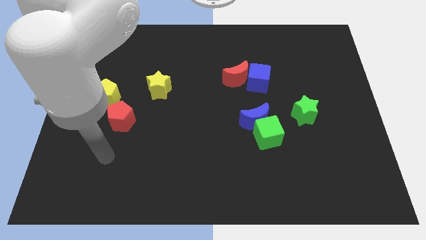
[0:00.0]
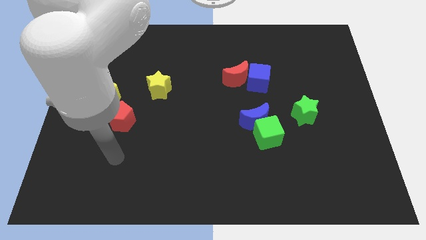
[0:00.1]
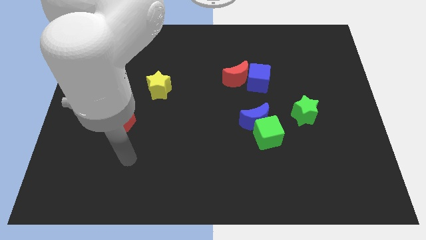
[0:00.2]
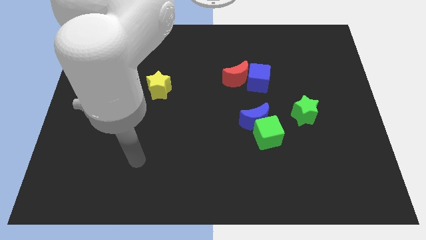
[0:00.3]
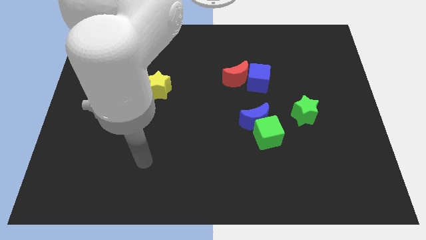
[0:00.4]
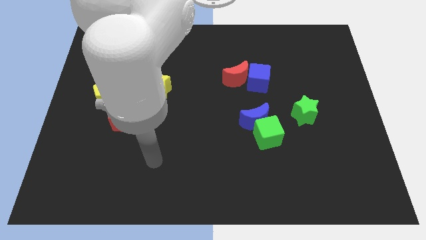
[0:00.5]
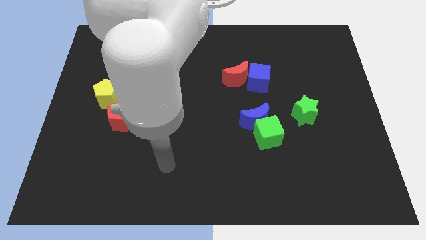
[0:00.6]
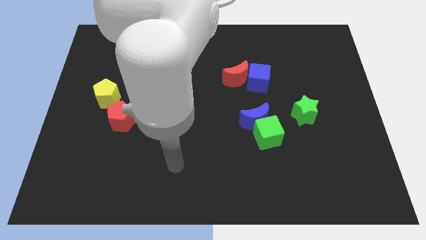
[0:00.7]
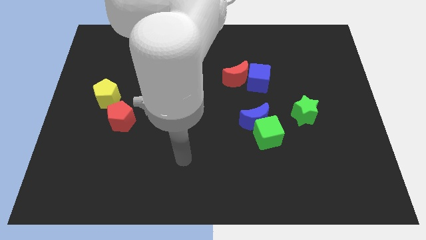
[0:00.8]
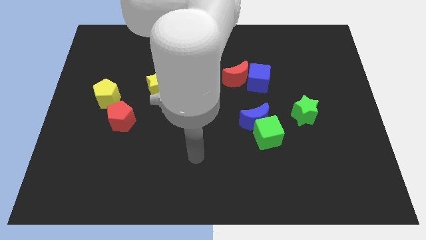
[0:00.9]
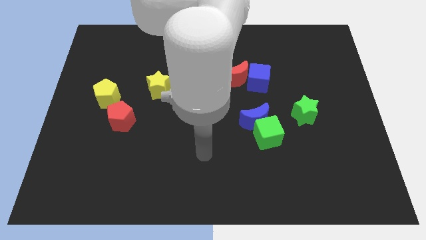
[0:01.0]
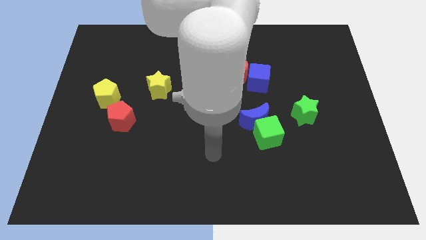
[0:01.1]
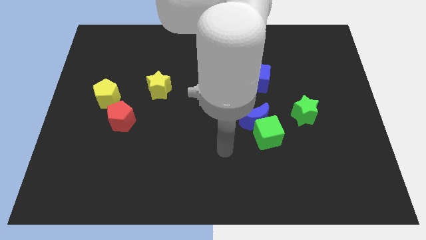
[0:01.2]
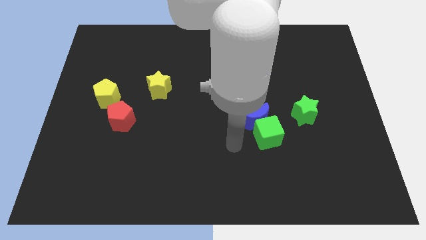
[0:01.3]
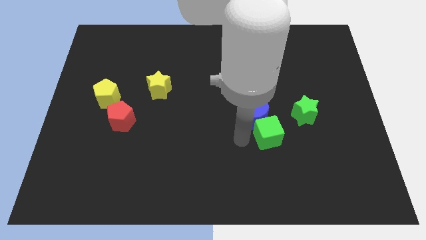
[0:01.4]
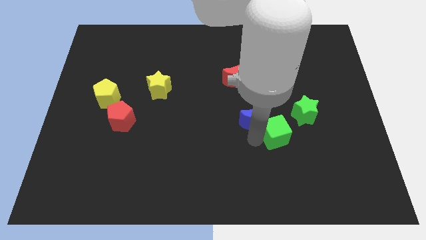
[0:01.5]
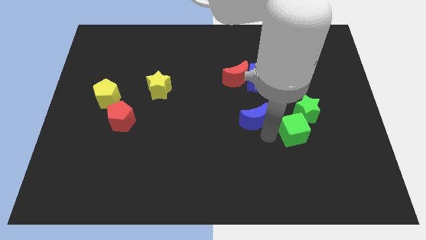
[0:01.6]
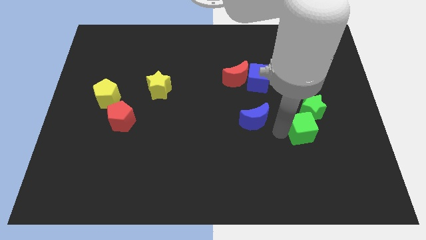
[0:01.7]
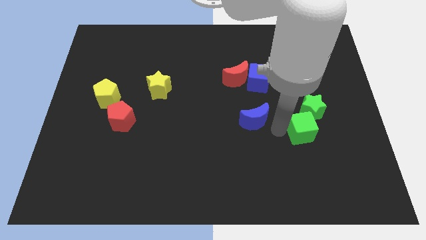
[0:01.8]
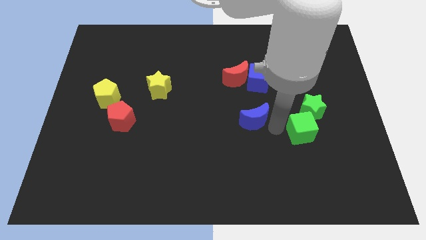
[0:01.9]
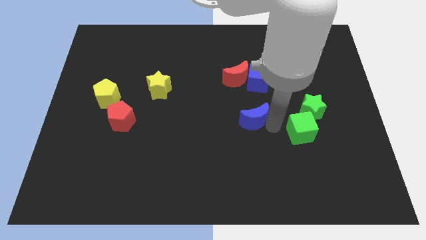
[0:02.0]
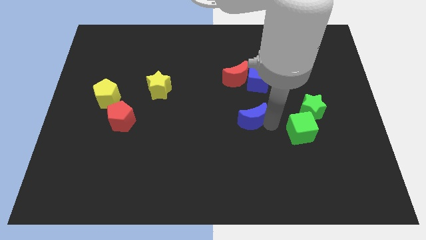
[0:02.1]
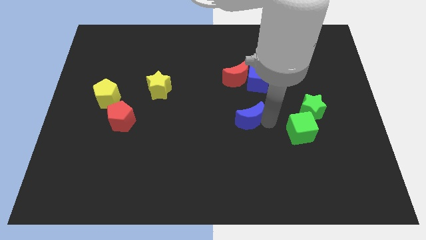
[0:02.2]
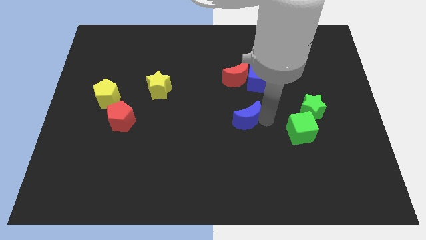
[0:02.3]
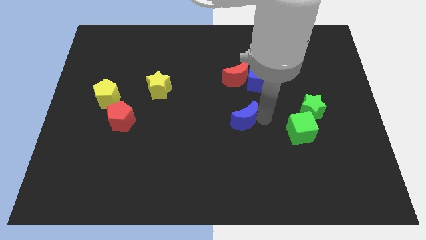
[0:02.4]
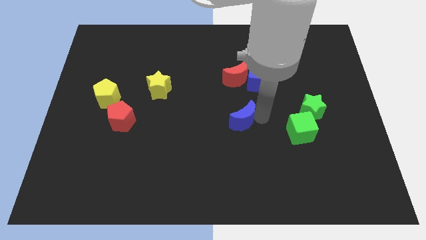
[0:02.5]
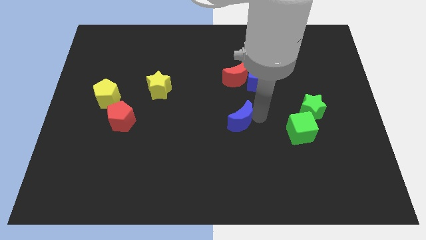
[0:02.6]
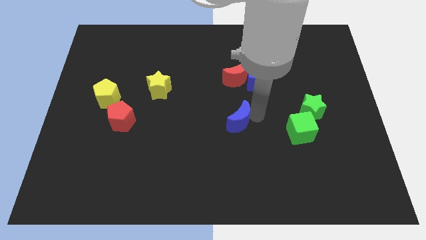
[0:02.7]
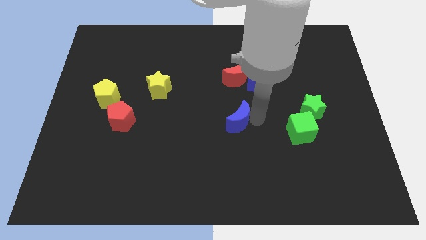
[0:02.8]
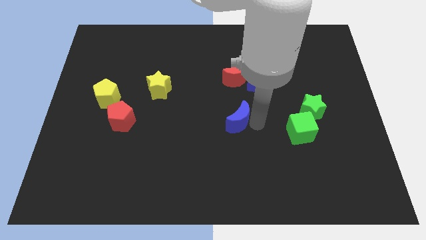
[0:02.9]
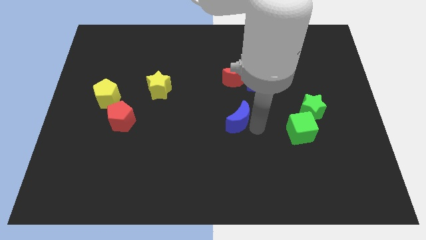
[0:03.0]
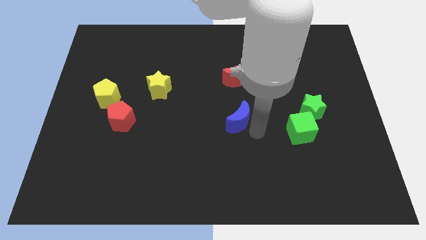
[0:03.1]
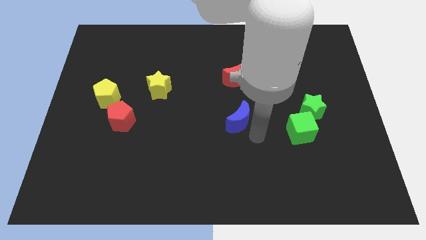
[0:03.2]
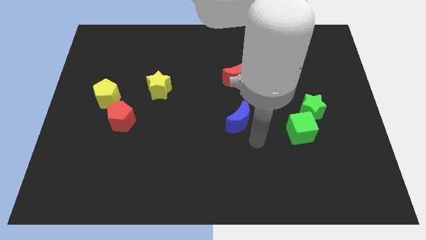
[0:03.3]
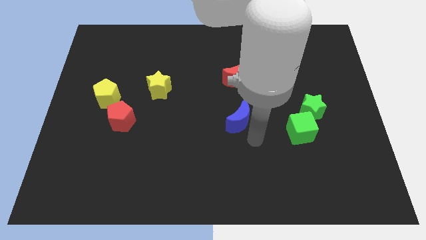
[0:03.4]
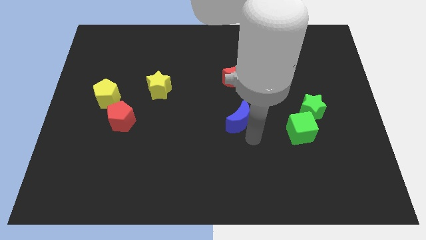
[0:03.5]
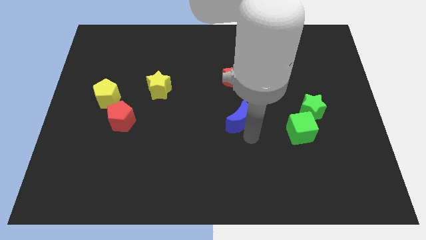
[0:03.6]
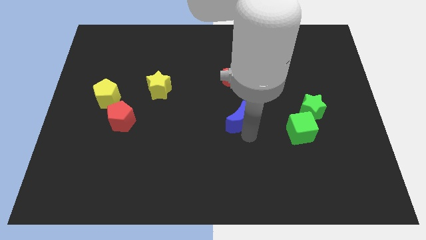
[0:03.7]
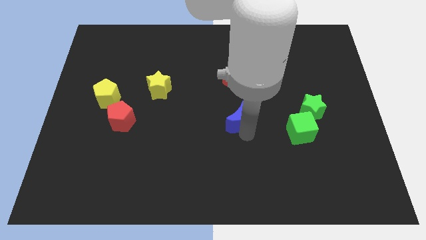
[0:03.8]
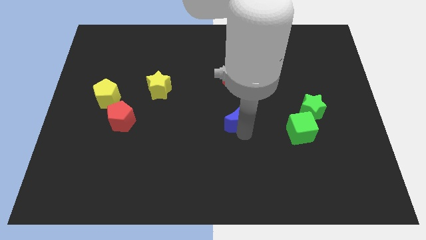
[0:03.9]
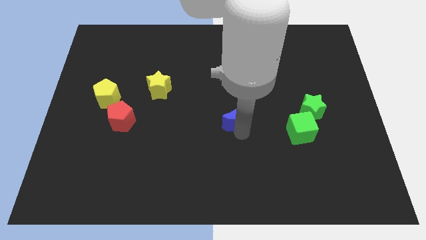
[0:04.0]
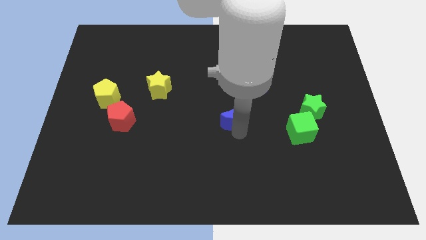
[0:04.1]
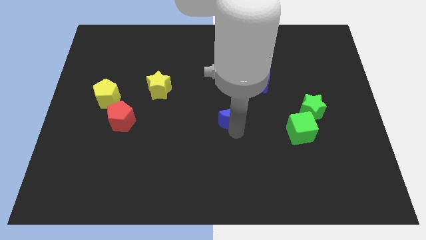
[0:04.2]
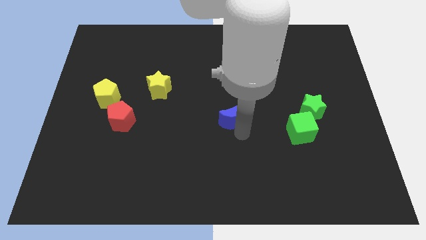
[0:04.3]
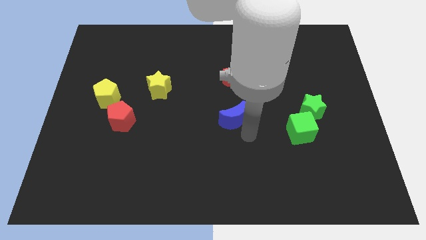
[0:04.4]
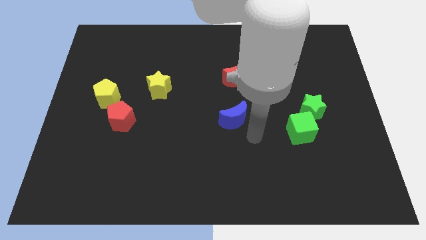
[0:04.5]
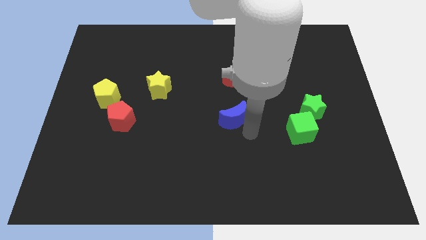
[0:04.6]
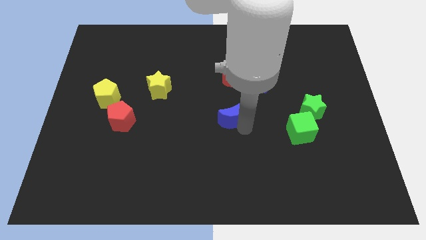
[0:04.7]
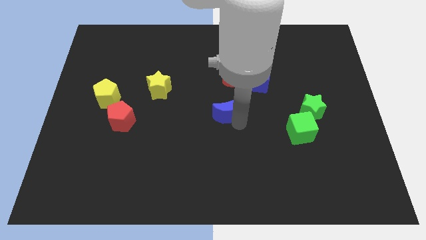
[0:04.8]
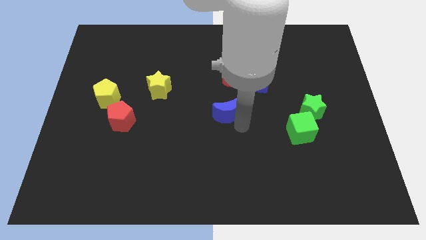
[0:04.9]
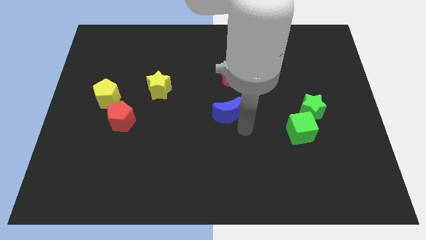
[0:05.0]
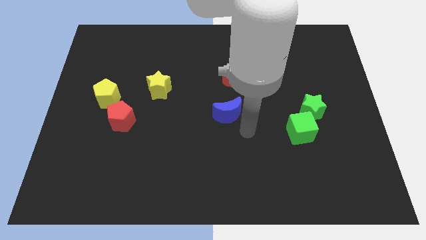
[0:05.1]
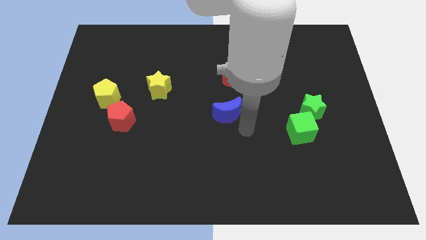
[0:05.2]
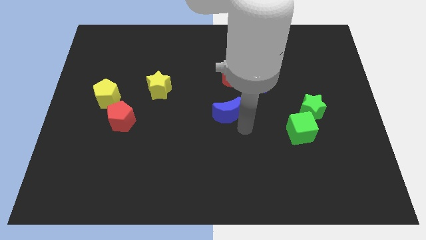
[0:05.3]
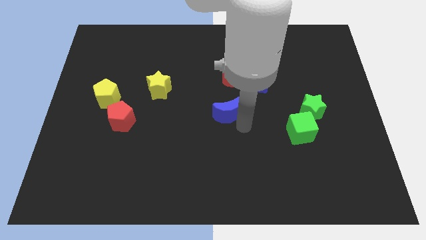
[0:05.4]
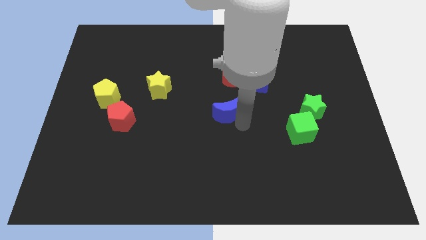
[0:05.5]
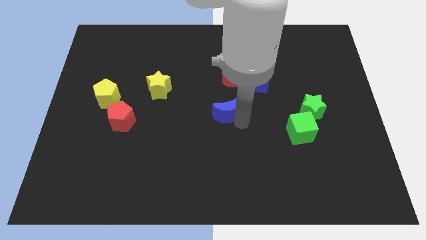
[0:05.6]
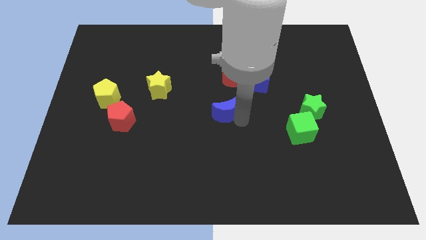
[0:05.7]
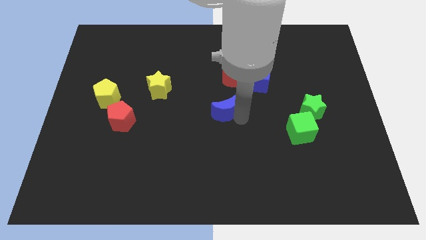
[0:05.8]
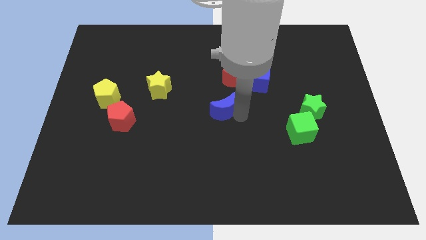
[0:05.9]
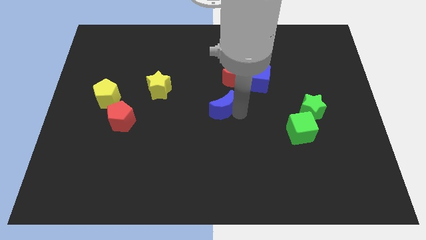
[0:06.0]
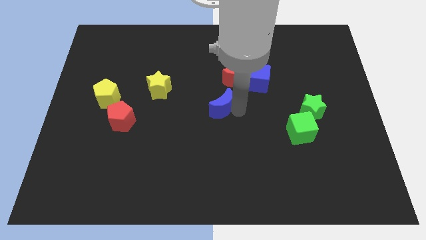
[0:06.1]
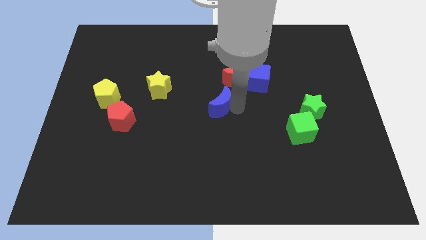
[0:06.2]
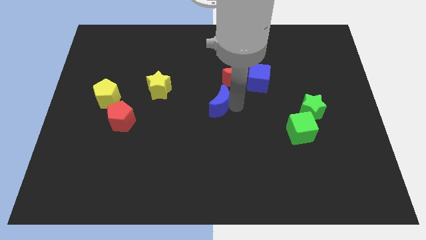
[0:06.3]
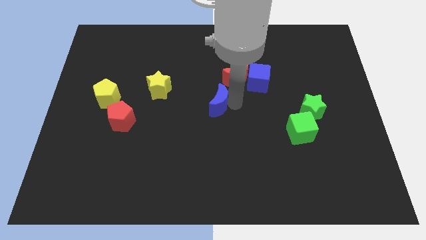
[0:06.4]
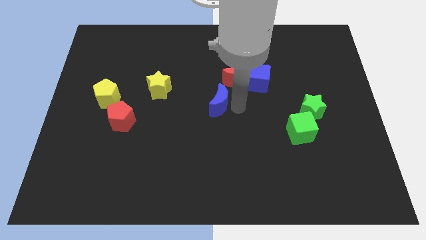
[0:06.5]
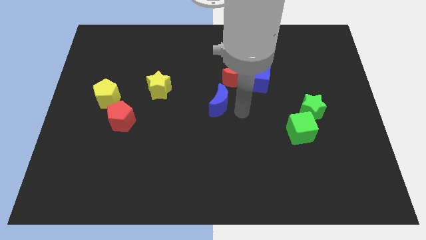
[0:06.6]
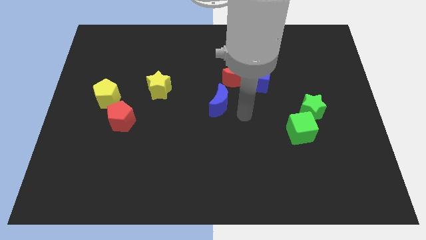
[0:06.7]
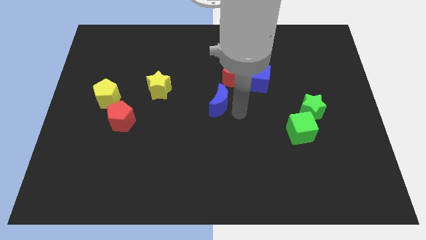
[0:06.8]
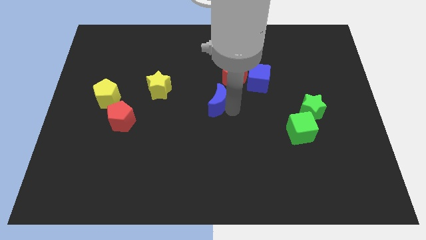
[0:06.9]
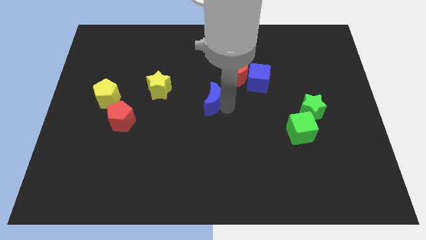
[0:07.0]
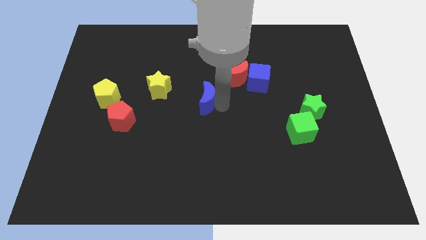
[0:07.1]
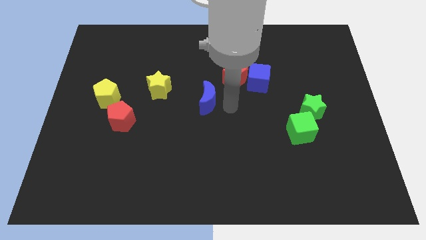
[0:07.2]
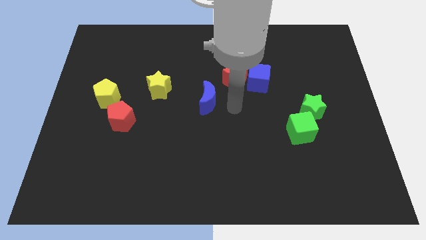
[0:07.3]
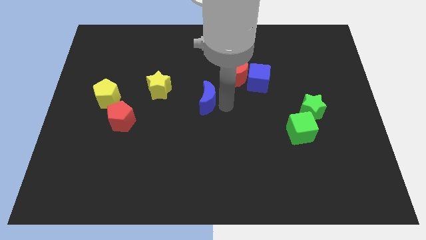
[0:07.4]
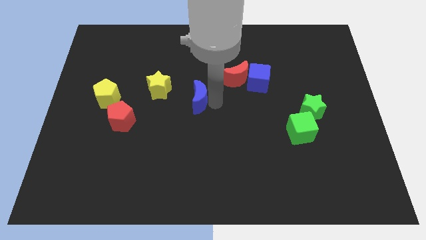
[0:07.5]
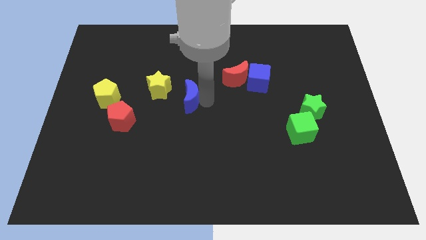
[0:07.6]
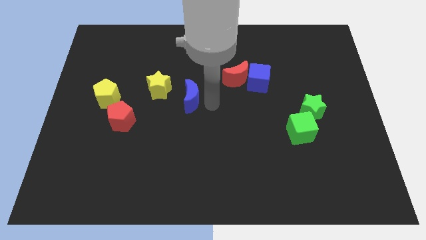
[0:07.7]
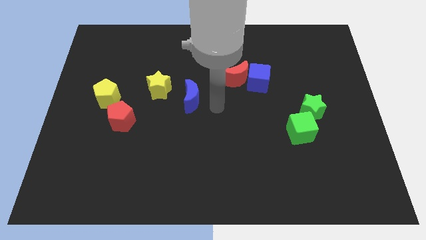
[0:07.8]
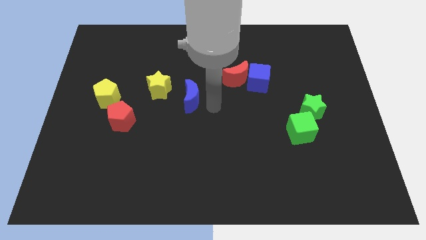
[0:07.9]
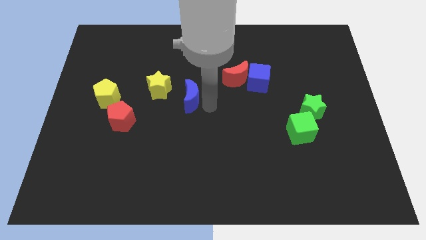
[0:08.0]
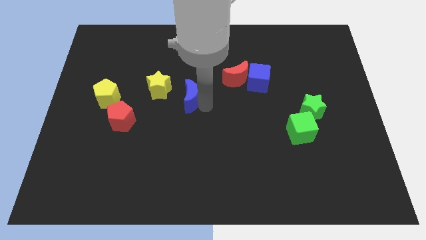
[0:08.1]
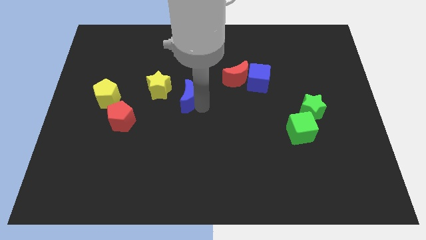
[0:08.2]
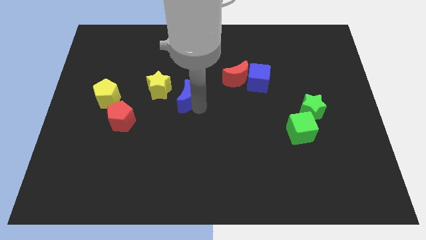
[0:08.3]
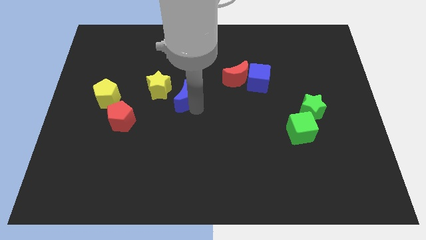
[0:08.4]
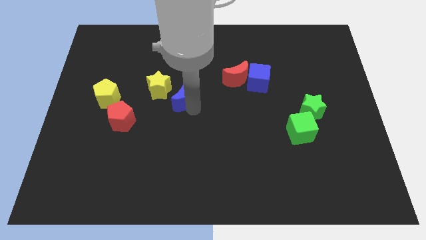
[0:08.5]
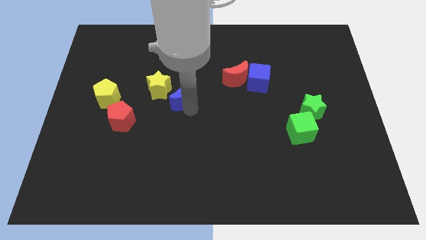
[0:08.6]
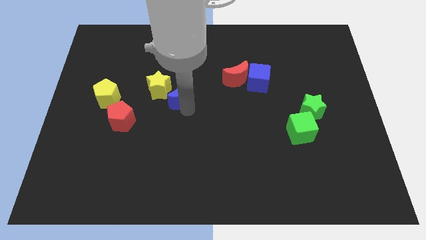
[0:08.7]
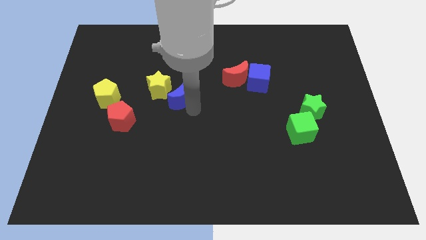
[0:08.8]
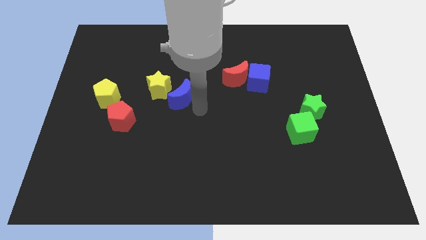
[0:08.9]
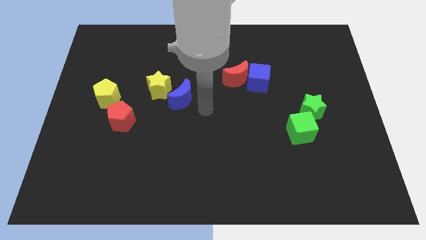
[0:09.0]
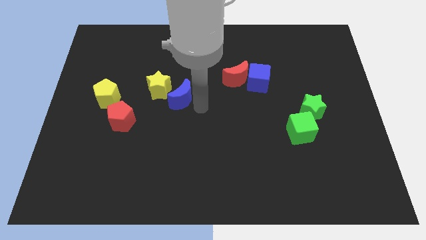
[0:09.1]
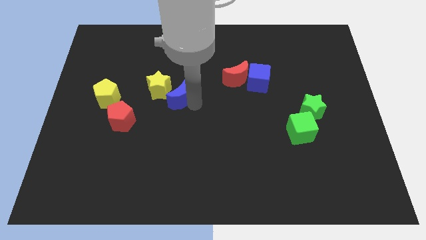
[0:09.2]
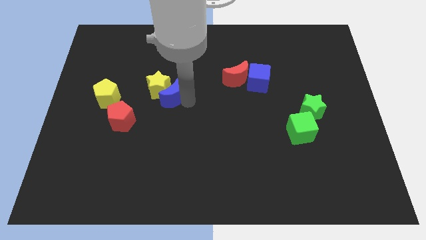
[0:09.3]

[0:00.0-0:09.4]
put the blue moon next to the yellow star
